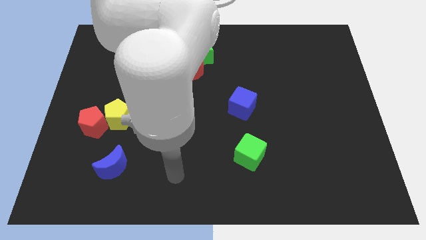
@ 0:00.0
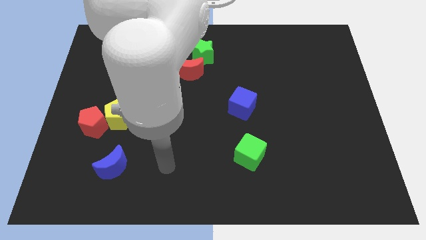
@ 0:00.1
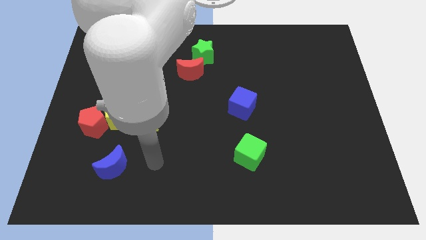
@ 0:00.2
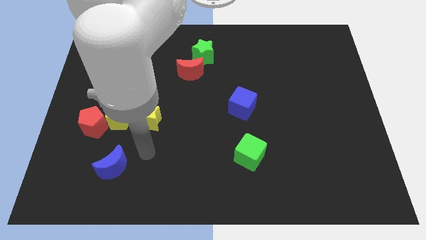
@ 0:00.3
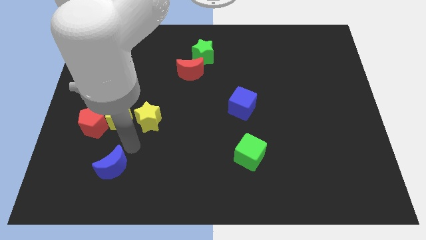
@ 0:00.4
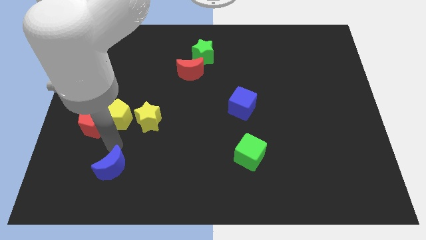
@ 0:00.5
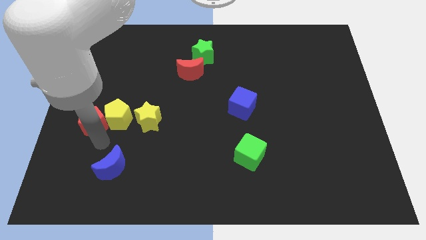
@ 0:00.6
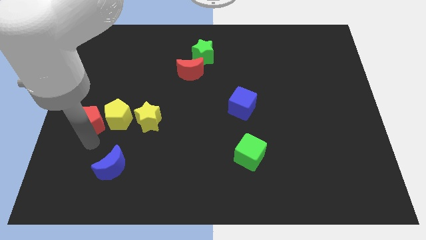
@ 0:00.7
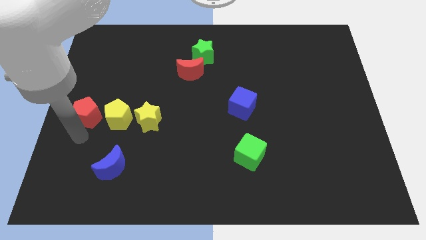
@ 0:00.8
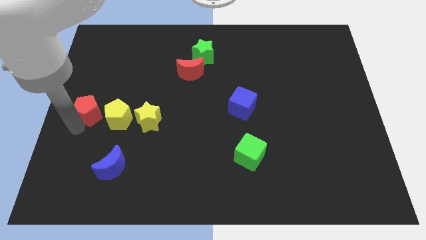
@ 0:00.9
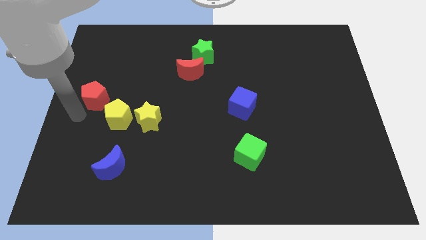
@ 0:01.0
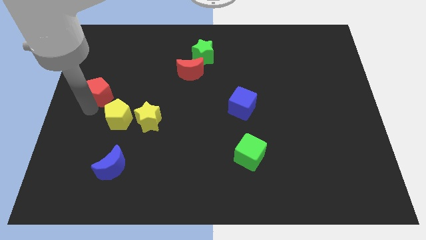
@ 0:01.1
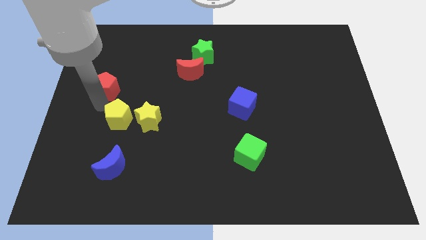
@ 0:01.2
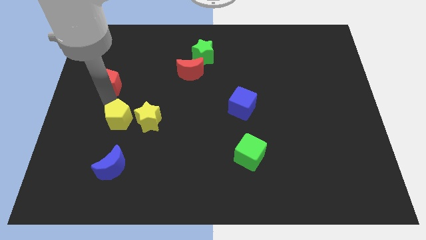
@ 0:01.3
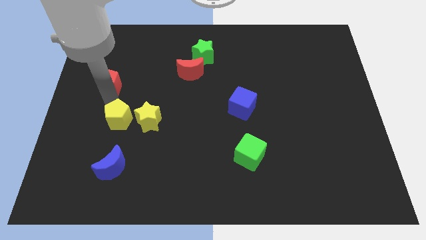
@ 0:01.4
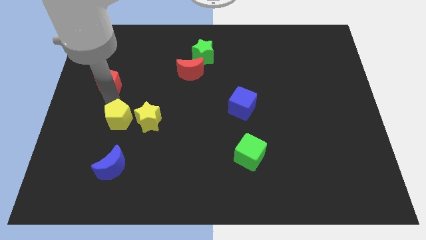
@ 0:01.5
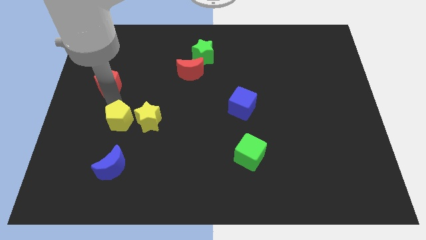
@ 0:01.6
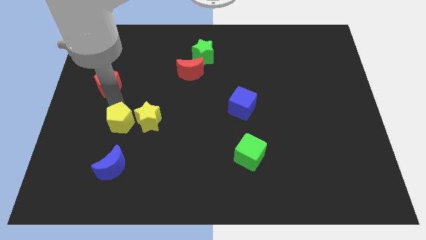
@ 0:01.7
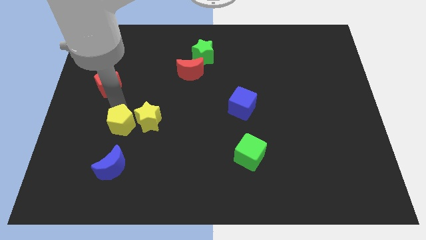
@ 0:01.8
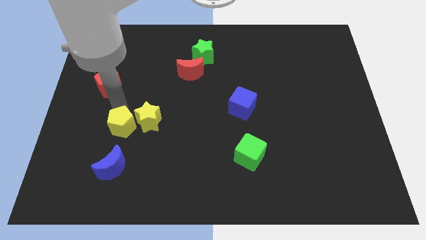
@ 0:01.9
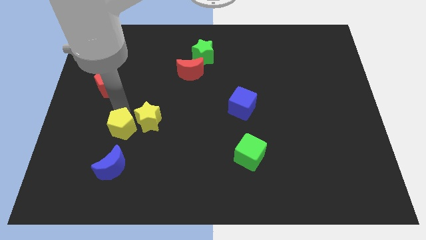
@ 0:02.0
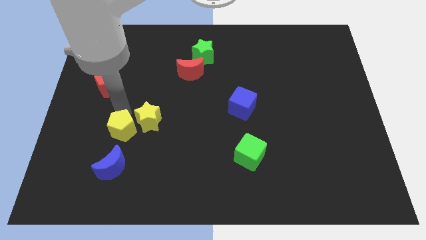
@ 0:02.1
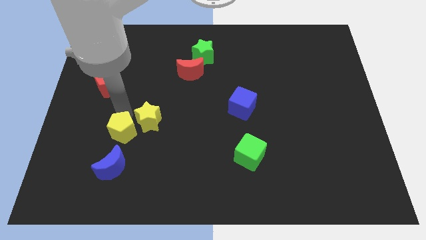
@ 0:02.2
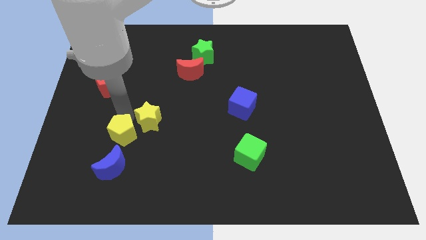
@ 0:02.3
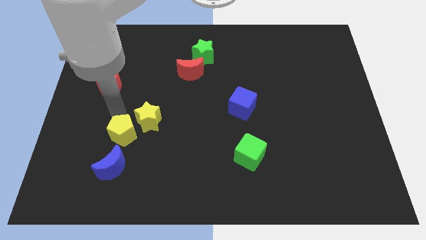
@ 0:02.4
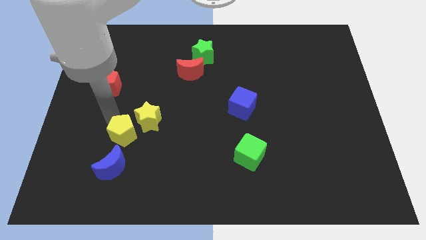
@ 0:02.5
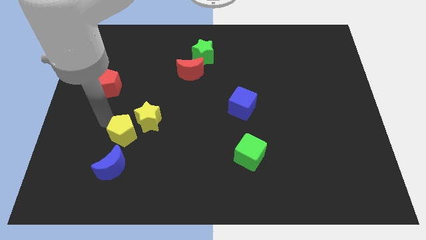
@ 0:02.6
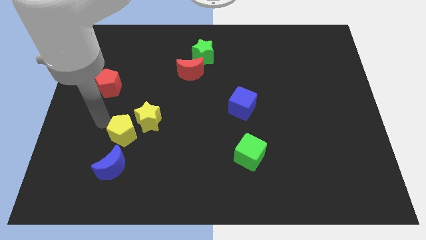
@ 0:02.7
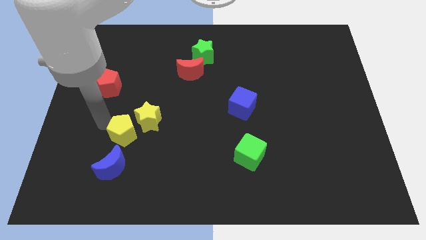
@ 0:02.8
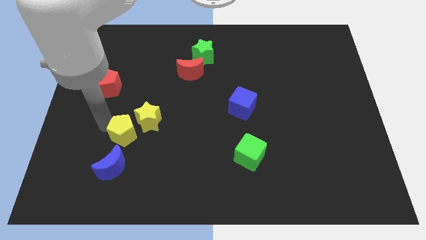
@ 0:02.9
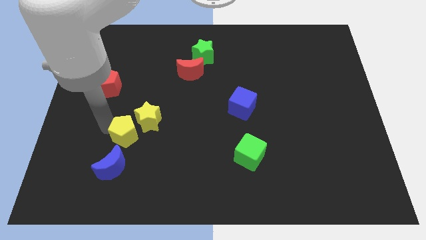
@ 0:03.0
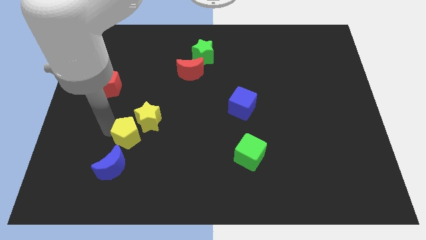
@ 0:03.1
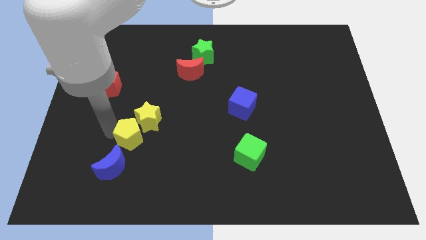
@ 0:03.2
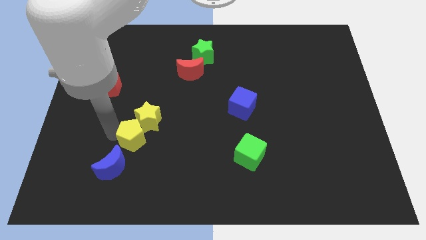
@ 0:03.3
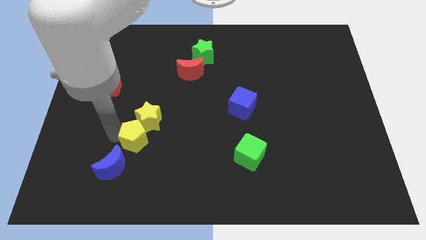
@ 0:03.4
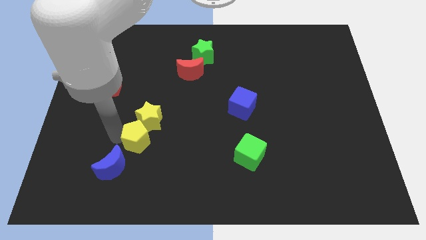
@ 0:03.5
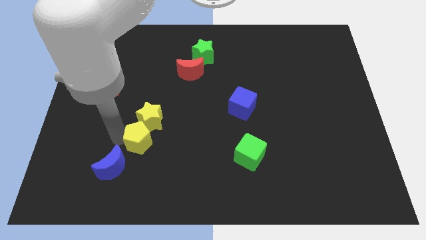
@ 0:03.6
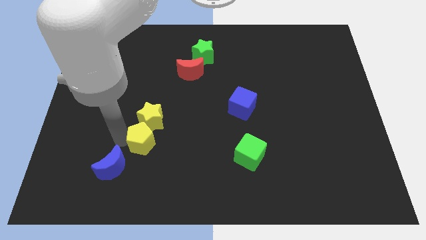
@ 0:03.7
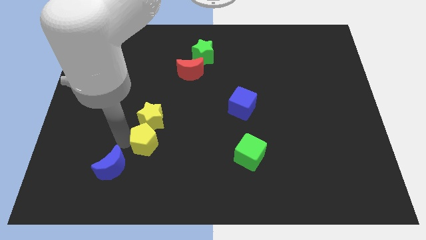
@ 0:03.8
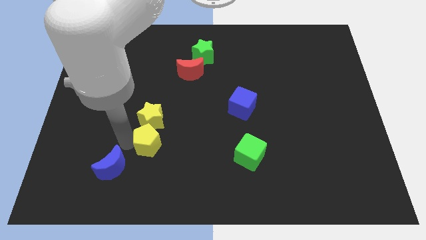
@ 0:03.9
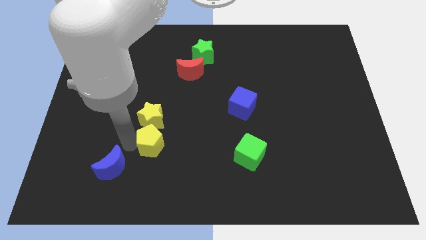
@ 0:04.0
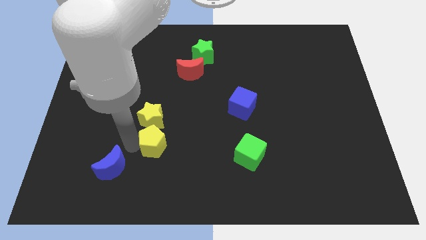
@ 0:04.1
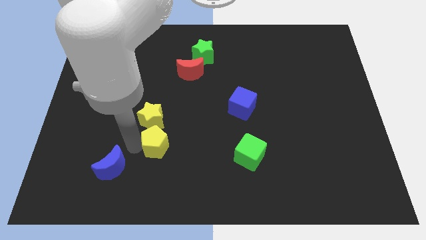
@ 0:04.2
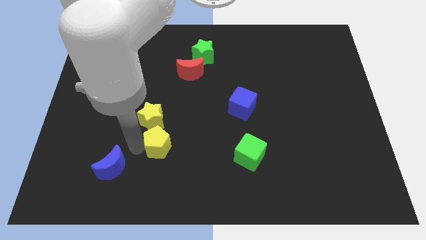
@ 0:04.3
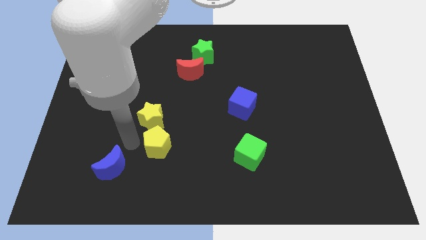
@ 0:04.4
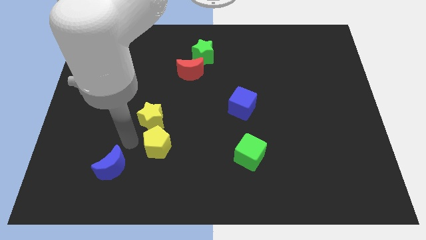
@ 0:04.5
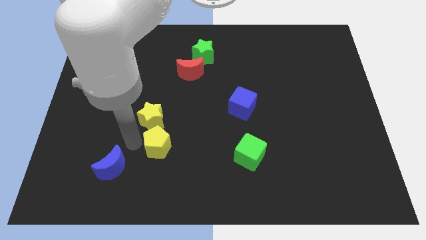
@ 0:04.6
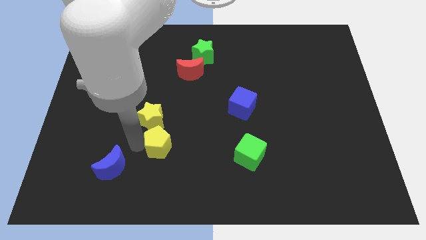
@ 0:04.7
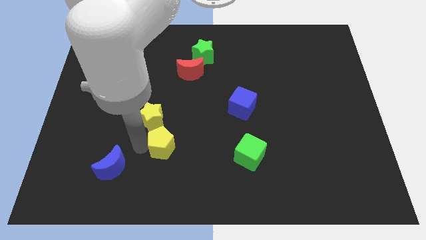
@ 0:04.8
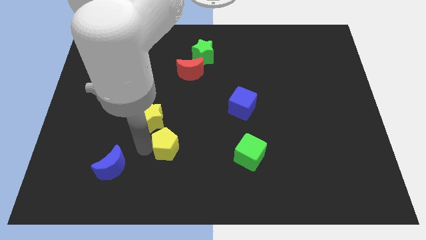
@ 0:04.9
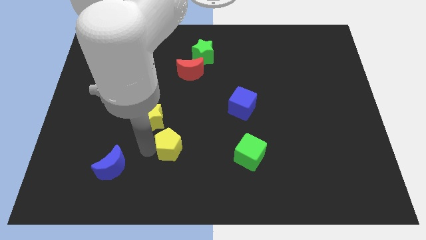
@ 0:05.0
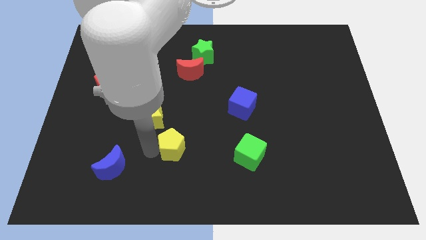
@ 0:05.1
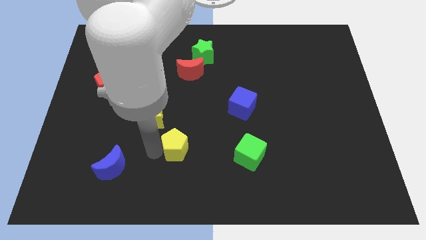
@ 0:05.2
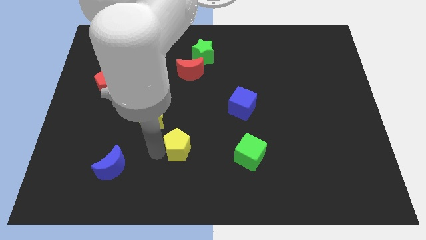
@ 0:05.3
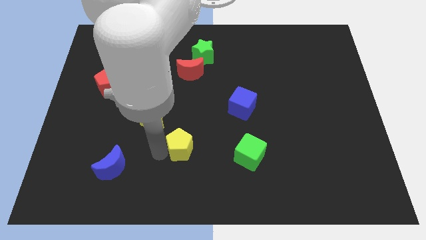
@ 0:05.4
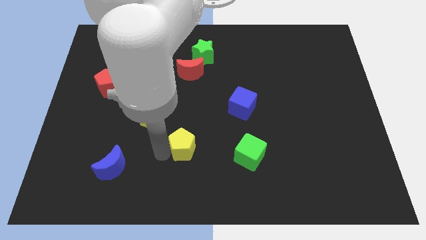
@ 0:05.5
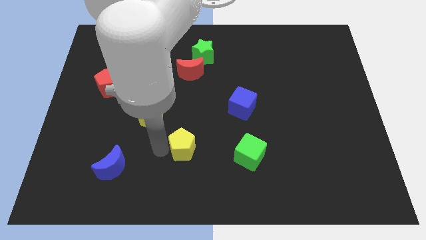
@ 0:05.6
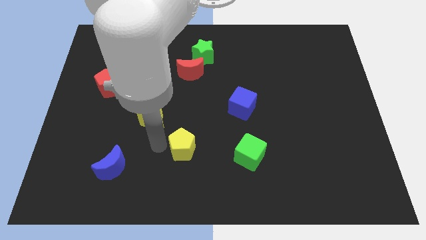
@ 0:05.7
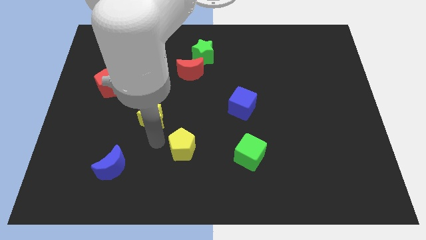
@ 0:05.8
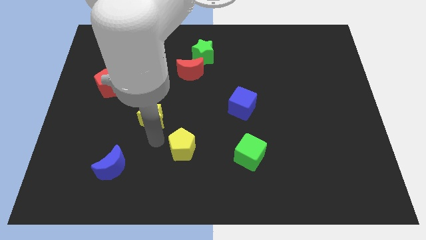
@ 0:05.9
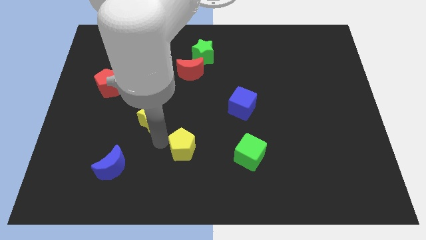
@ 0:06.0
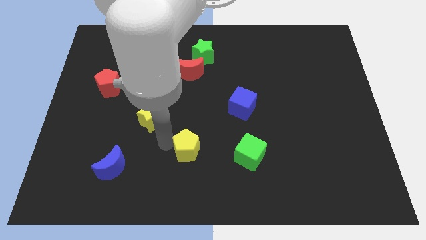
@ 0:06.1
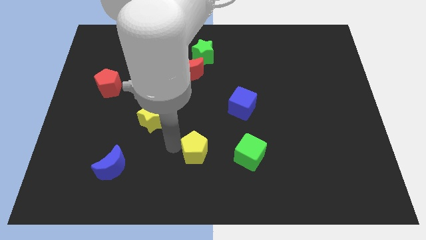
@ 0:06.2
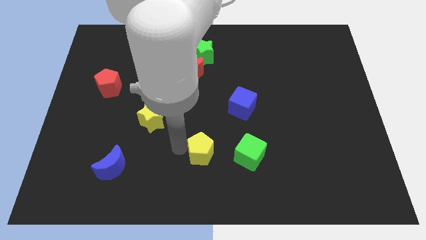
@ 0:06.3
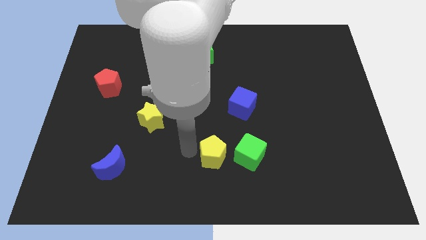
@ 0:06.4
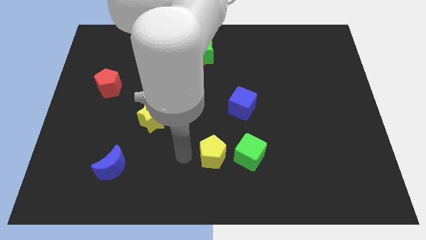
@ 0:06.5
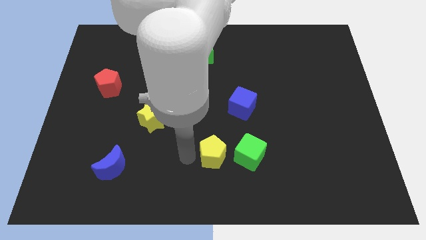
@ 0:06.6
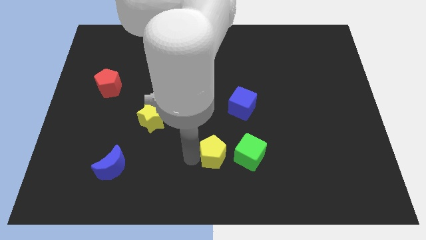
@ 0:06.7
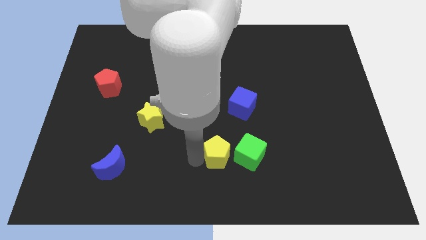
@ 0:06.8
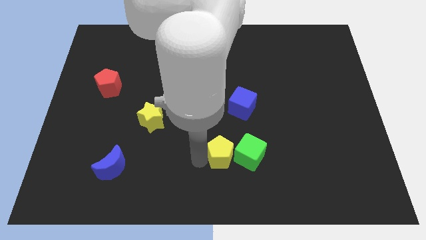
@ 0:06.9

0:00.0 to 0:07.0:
push the yellow pentagon next to the green cube
